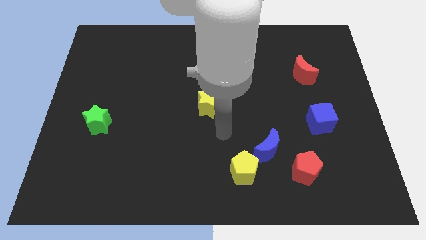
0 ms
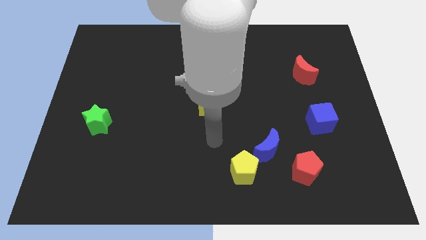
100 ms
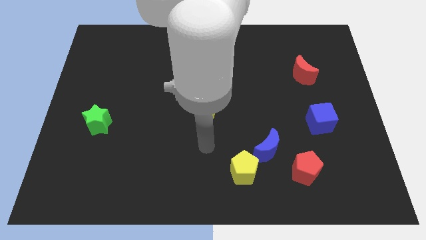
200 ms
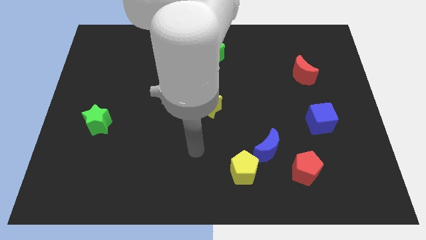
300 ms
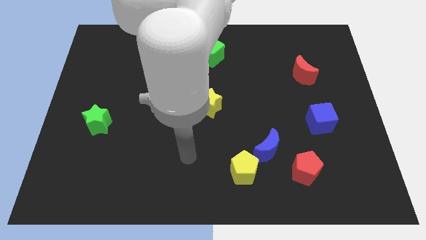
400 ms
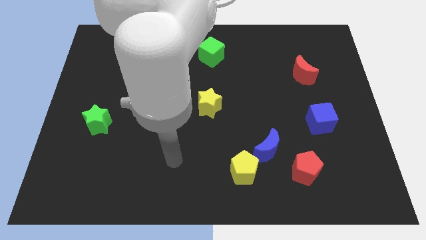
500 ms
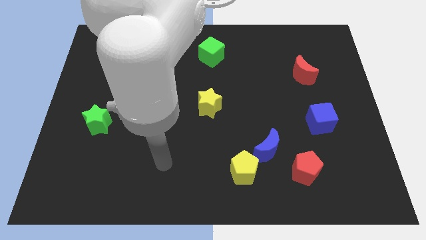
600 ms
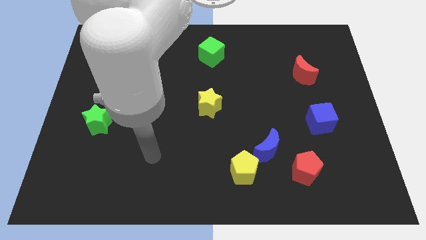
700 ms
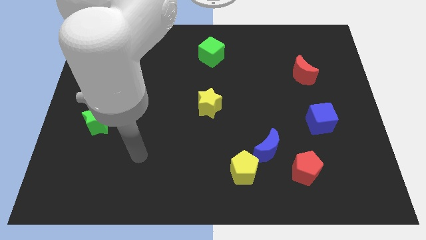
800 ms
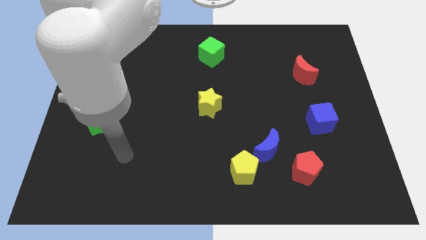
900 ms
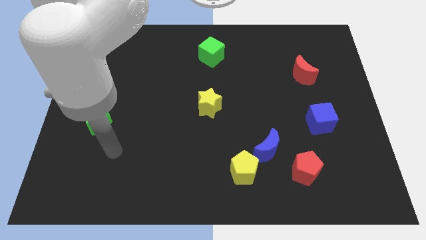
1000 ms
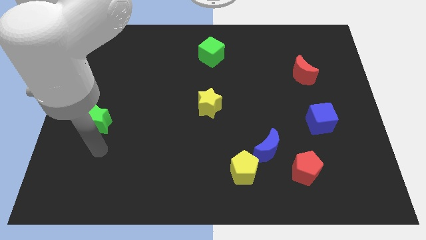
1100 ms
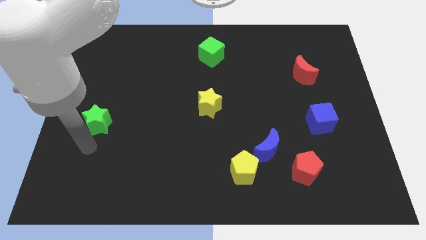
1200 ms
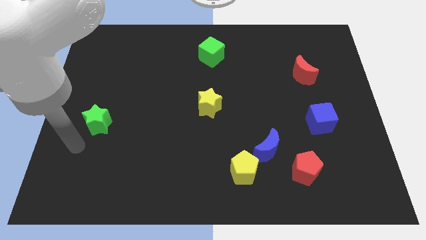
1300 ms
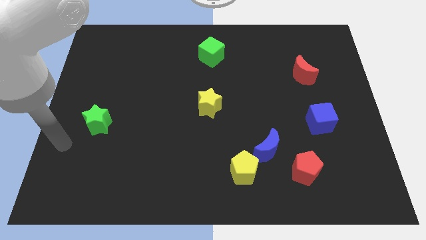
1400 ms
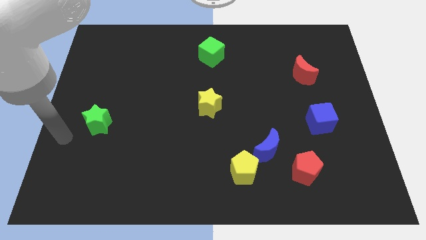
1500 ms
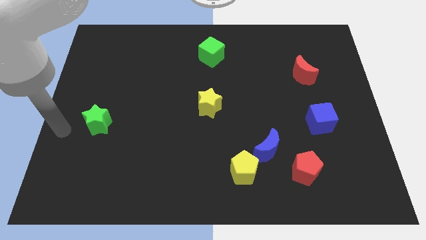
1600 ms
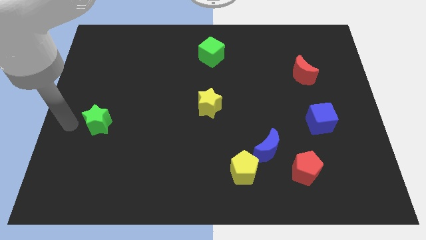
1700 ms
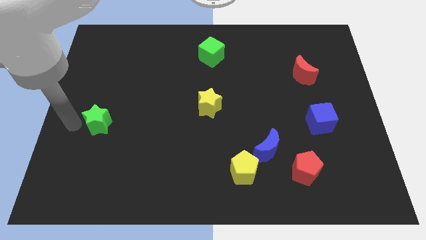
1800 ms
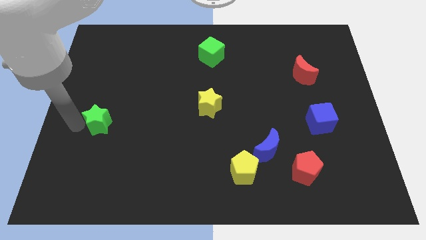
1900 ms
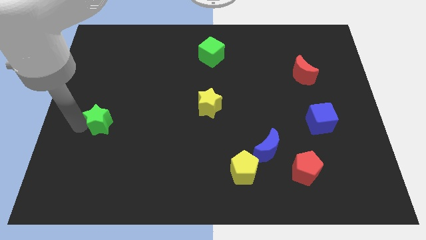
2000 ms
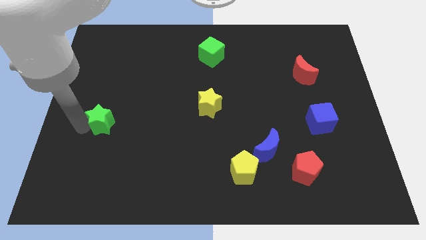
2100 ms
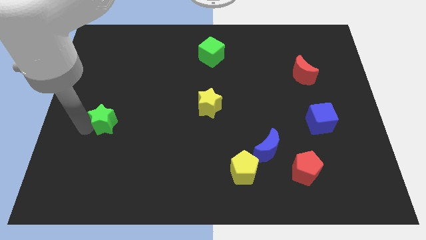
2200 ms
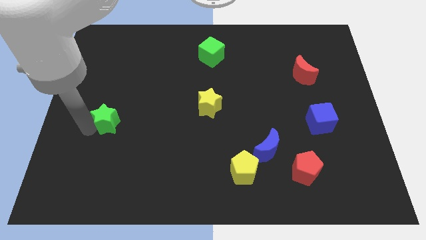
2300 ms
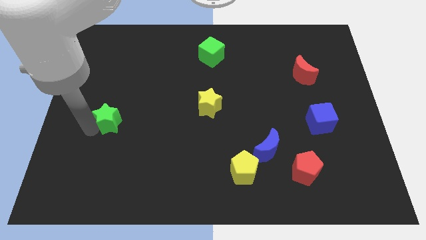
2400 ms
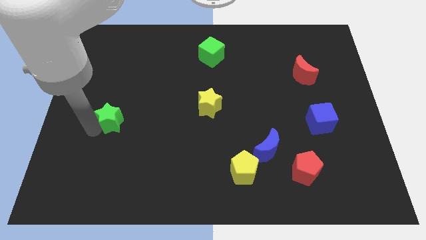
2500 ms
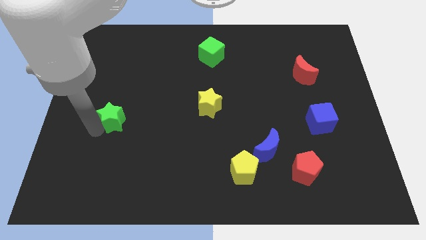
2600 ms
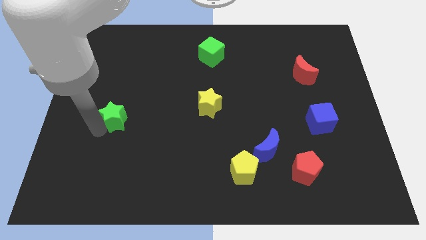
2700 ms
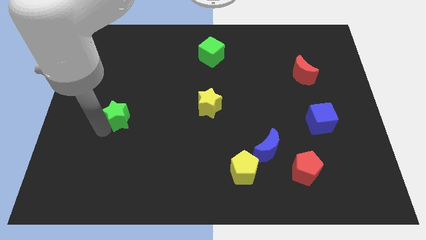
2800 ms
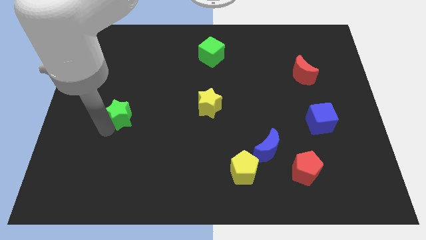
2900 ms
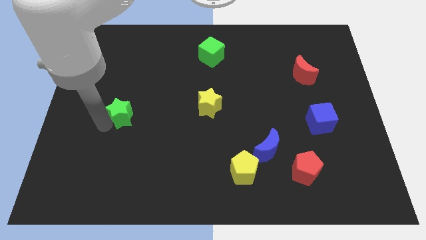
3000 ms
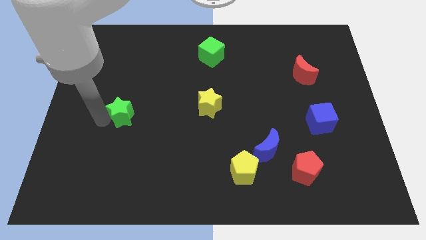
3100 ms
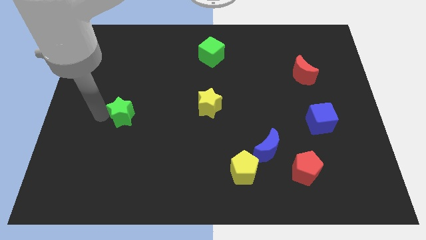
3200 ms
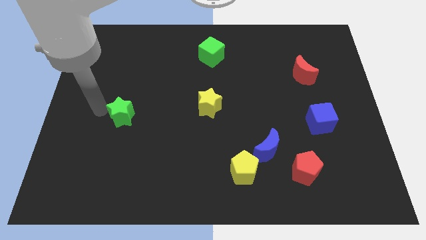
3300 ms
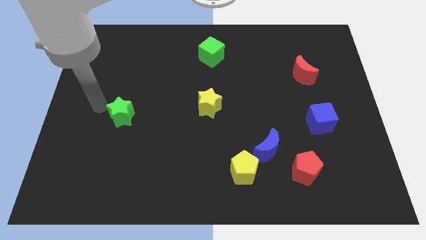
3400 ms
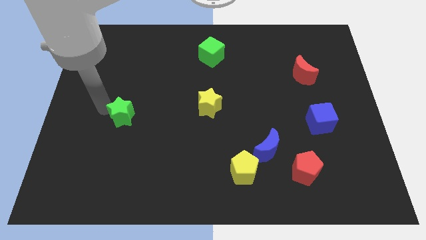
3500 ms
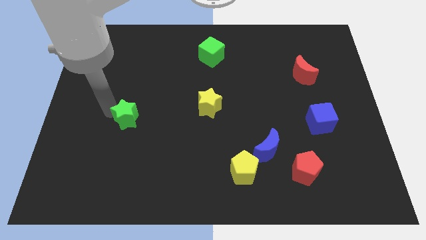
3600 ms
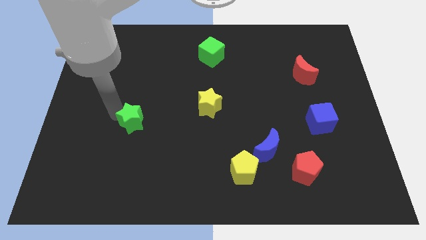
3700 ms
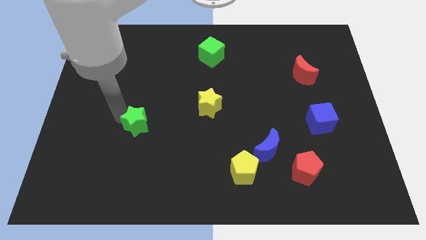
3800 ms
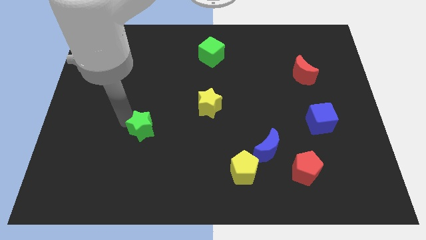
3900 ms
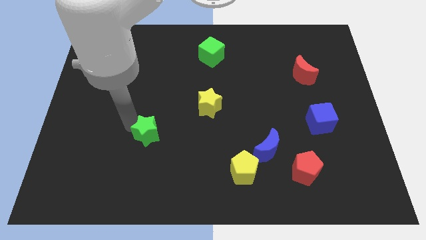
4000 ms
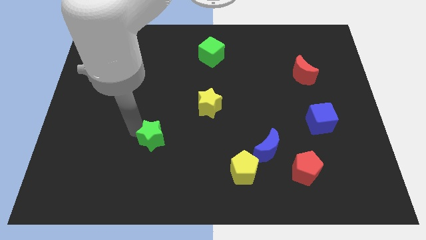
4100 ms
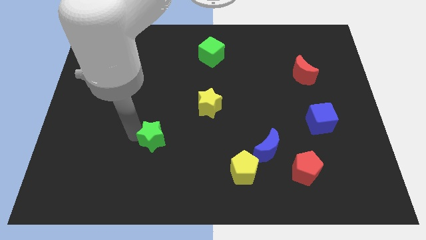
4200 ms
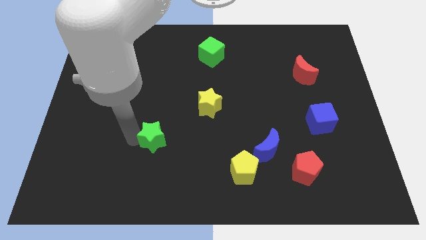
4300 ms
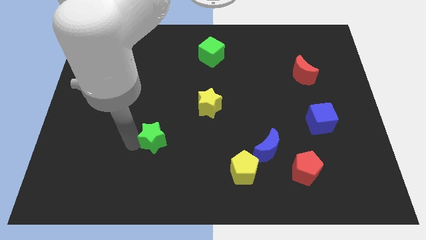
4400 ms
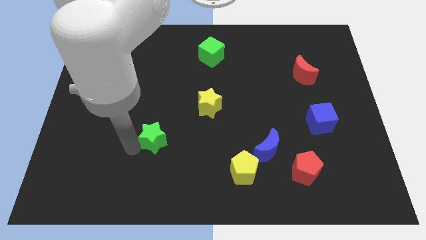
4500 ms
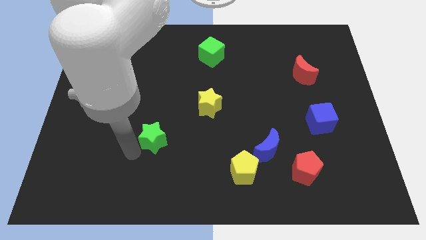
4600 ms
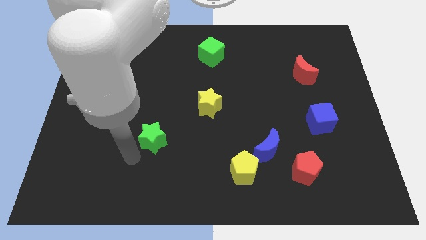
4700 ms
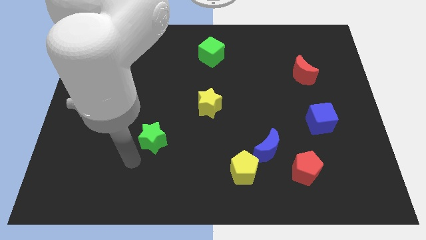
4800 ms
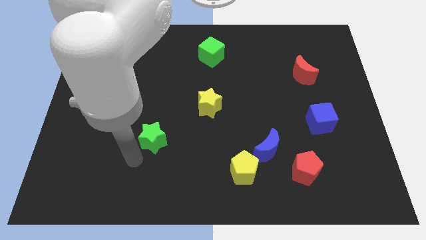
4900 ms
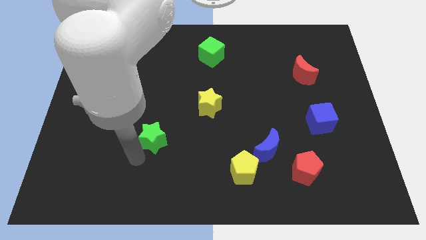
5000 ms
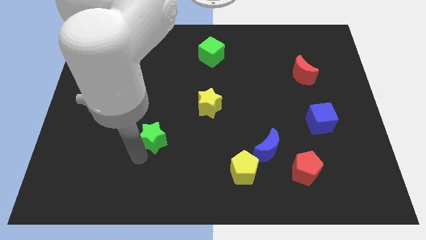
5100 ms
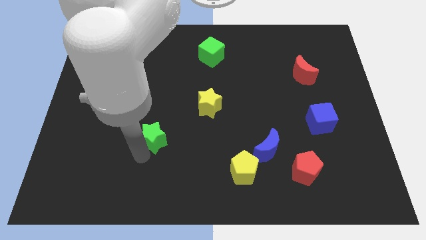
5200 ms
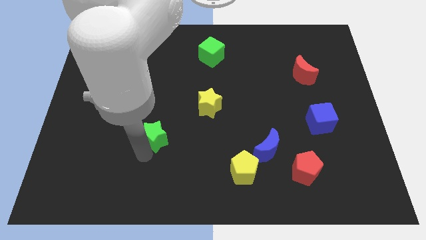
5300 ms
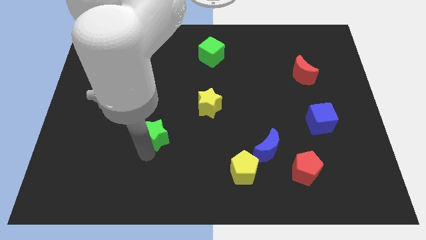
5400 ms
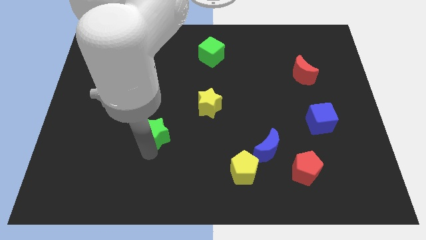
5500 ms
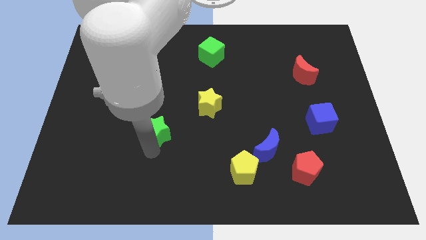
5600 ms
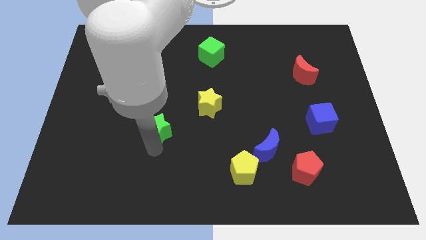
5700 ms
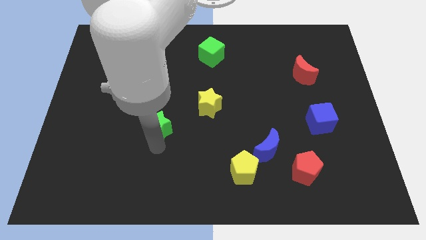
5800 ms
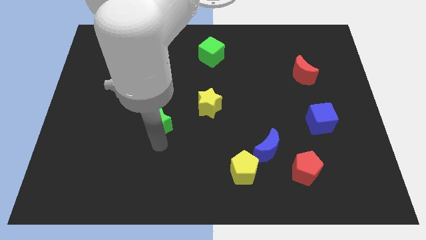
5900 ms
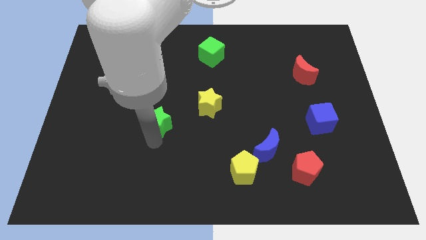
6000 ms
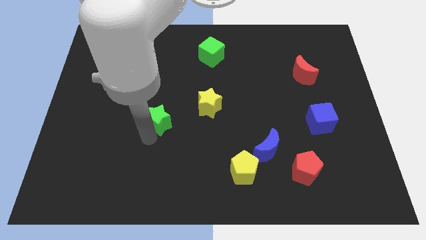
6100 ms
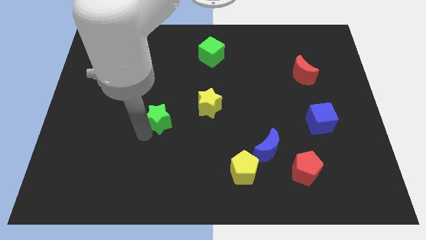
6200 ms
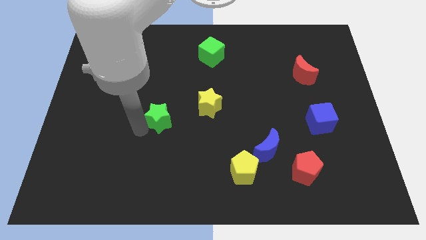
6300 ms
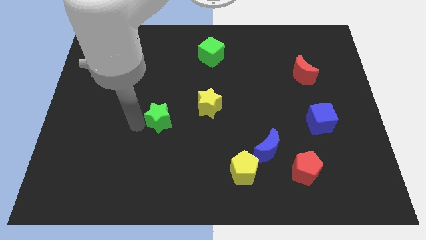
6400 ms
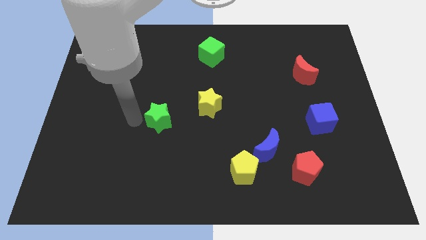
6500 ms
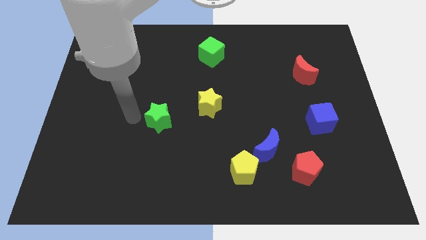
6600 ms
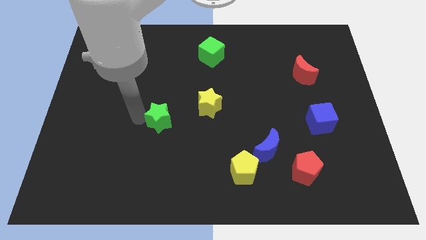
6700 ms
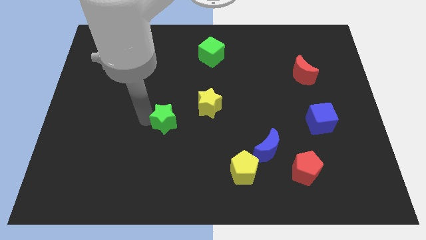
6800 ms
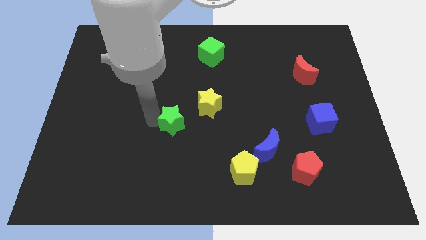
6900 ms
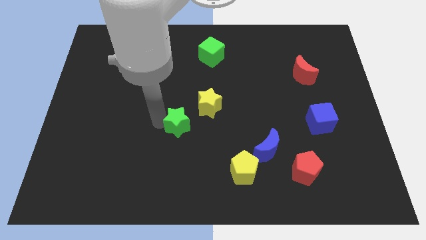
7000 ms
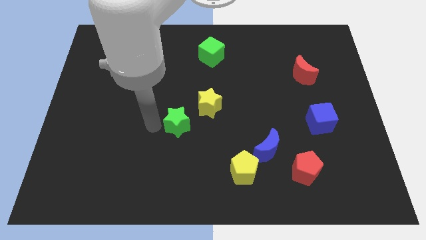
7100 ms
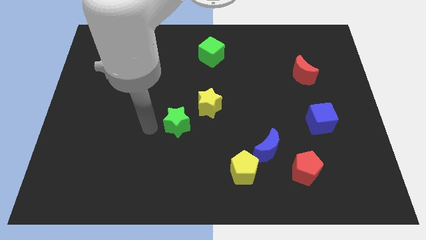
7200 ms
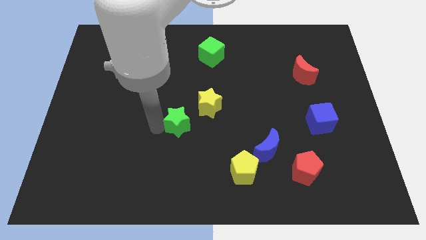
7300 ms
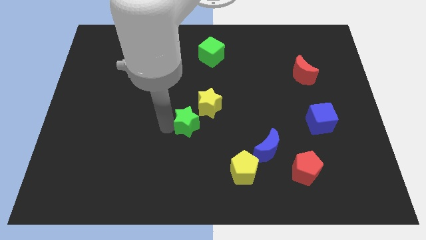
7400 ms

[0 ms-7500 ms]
slide the green star to the right

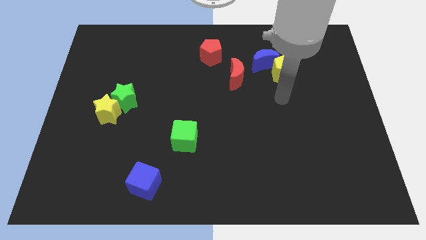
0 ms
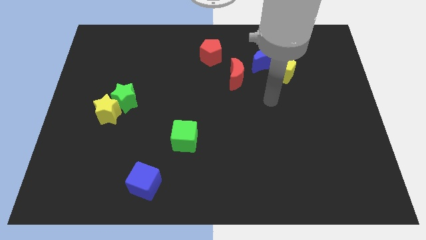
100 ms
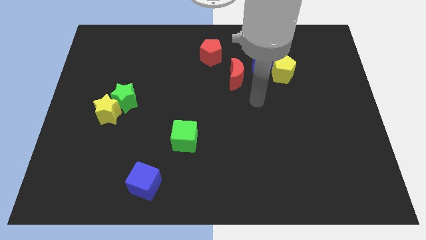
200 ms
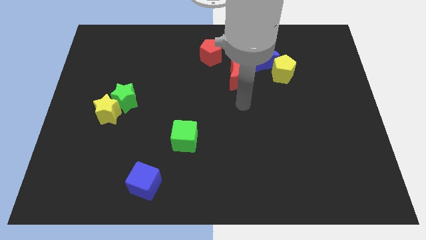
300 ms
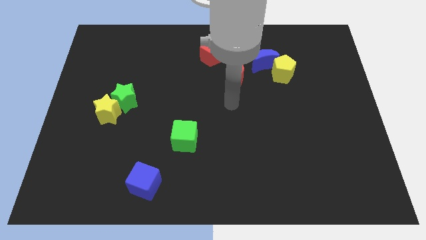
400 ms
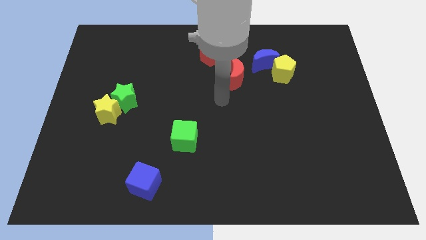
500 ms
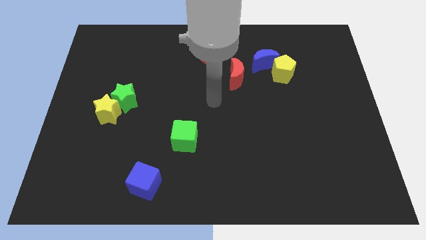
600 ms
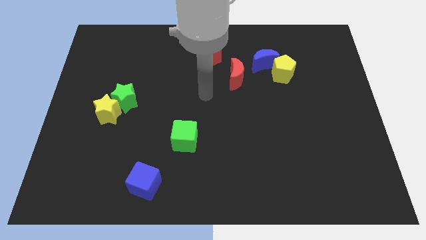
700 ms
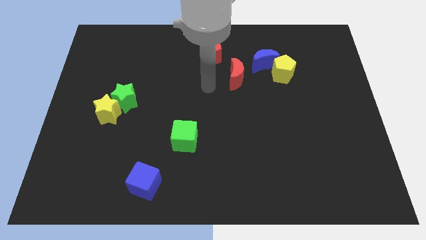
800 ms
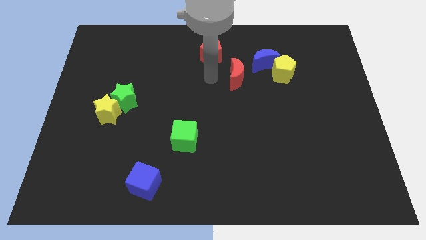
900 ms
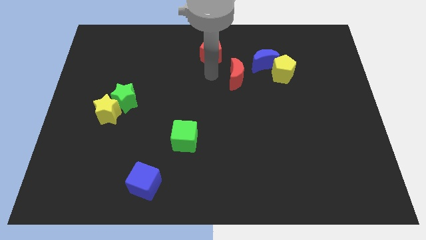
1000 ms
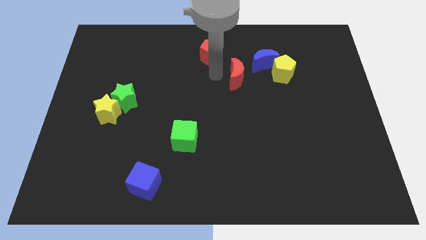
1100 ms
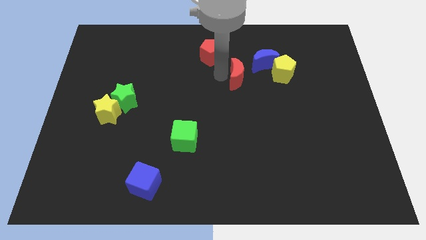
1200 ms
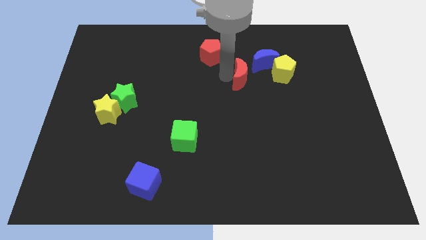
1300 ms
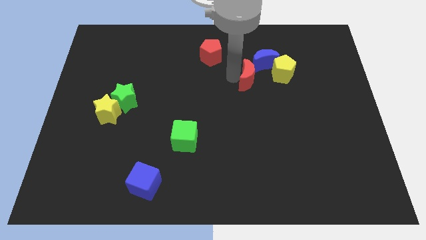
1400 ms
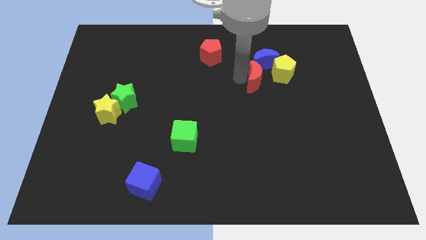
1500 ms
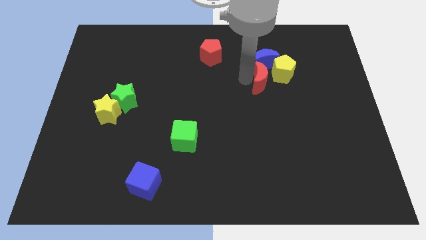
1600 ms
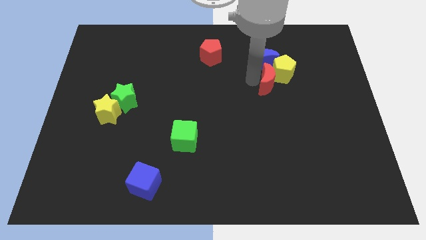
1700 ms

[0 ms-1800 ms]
push the red moon right slightly
